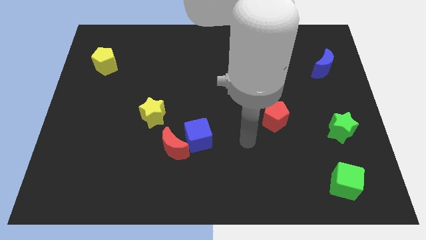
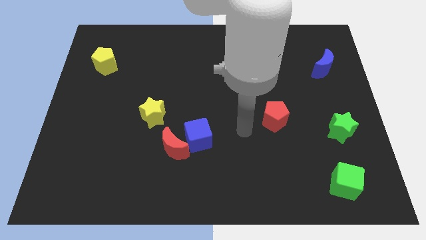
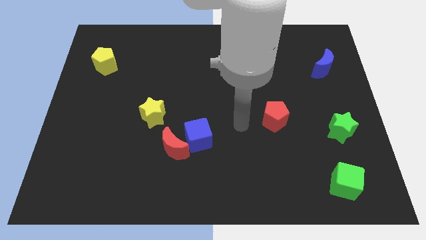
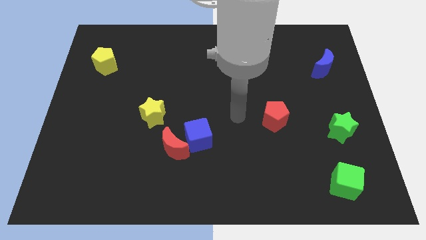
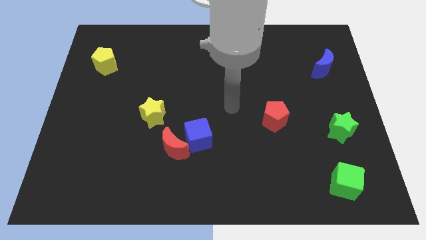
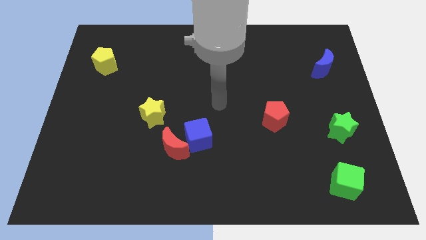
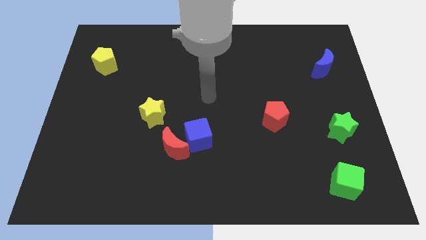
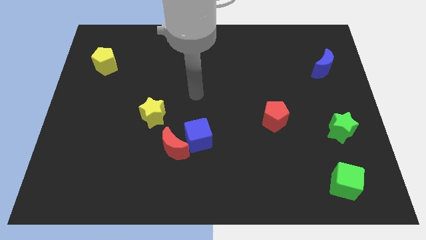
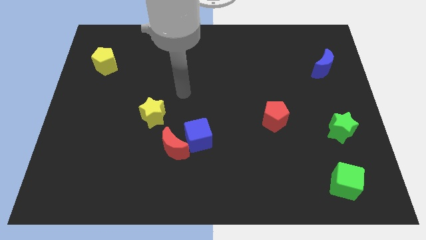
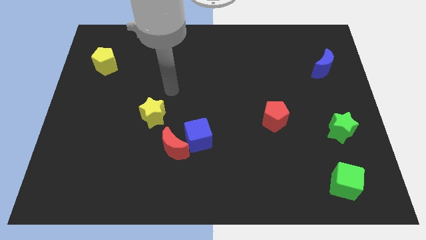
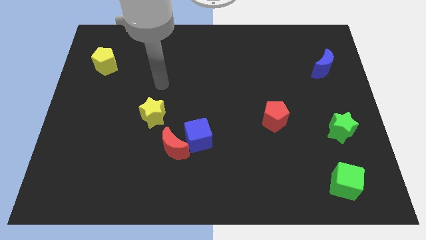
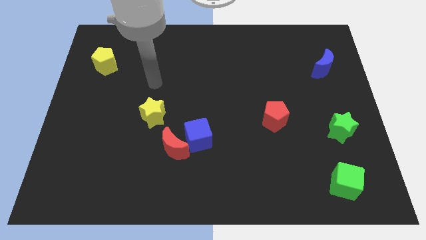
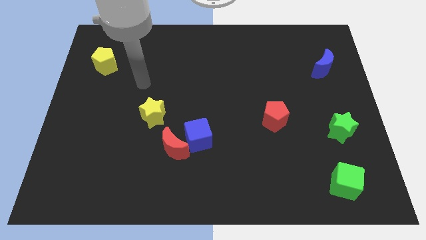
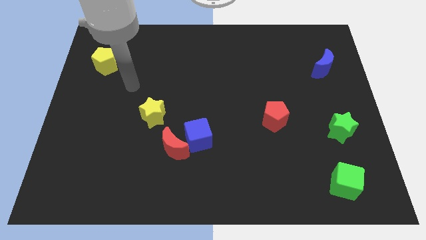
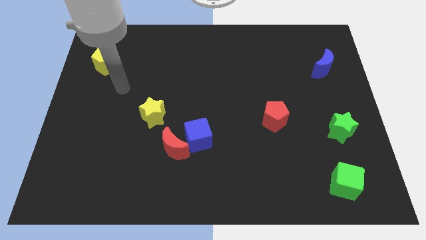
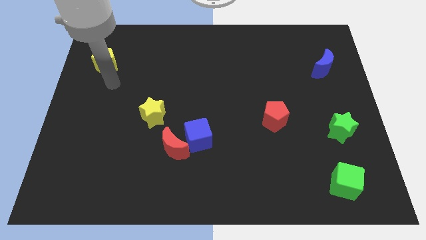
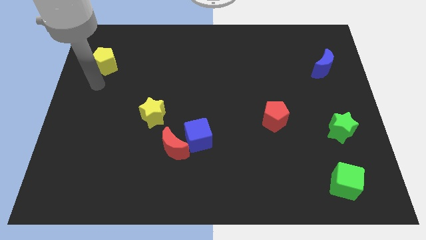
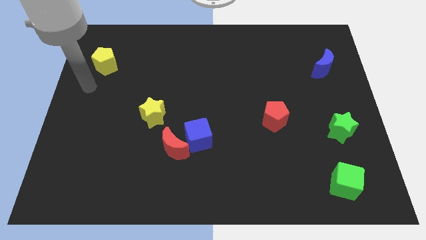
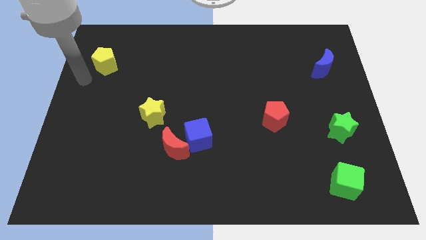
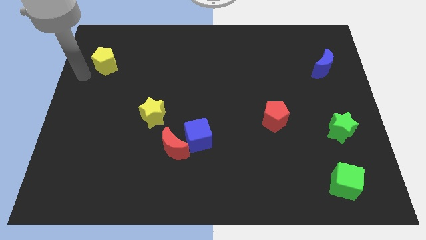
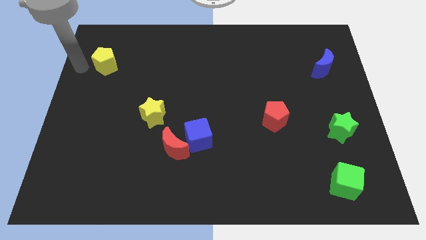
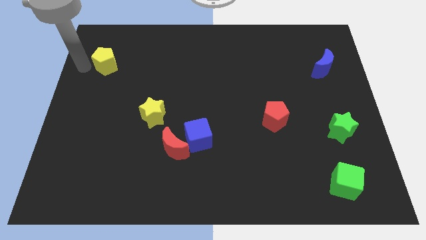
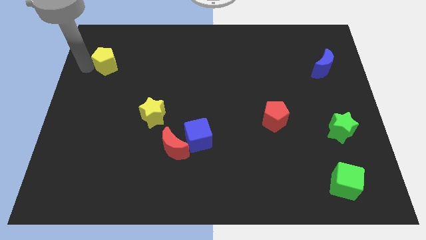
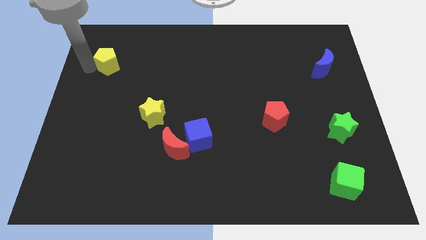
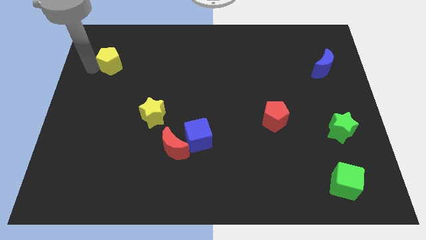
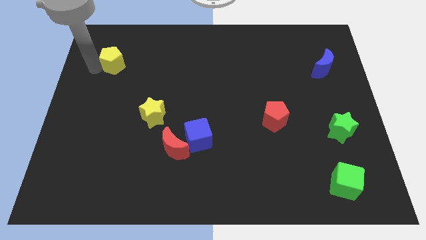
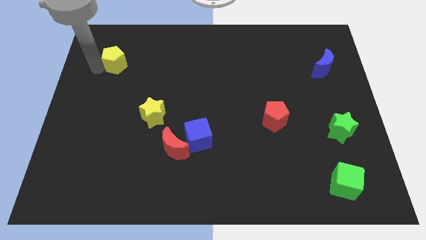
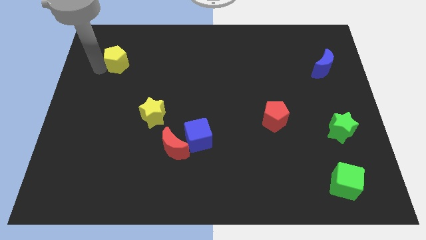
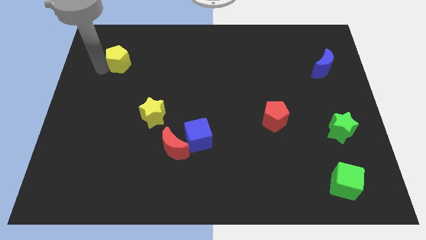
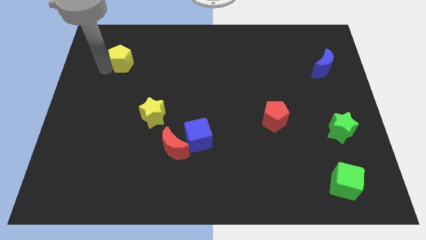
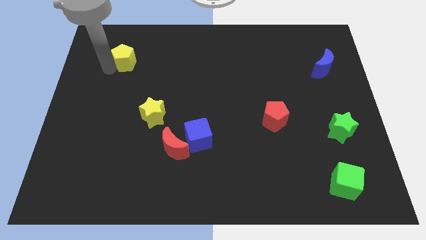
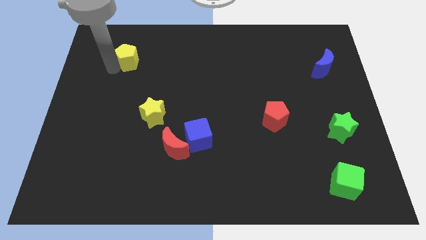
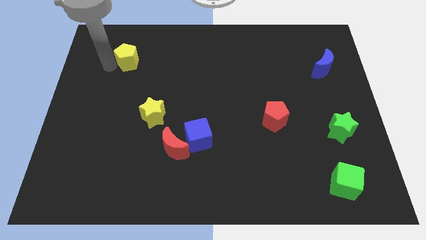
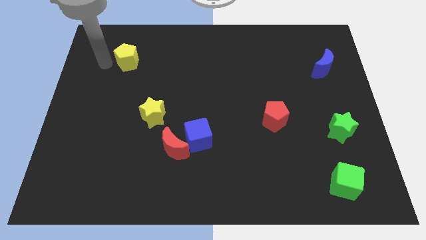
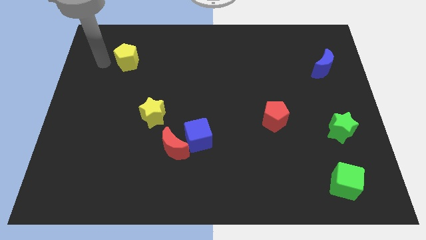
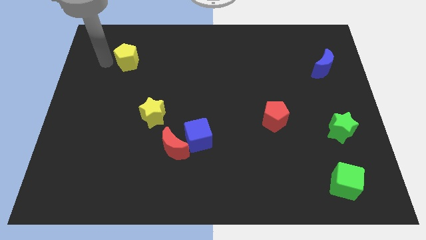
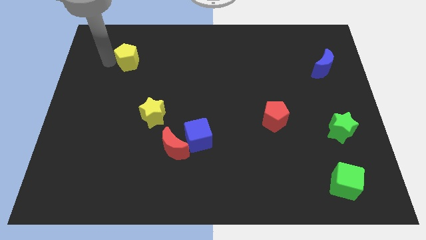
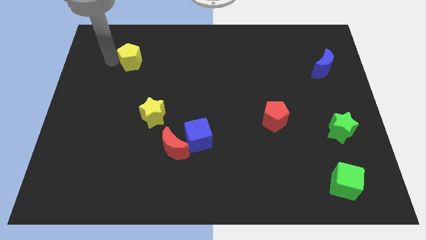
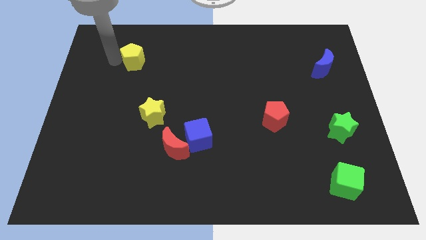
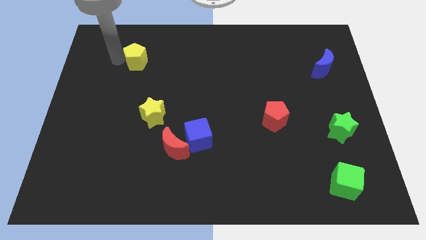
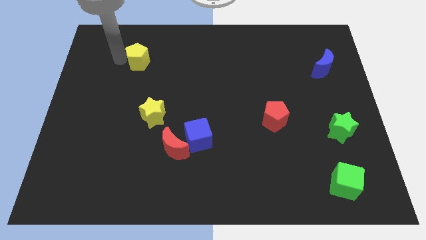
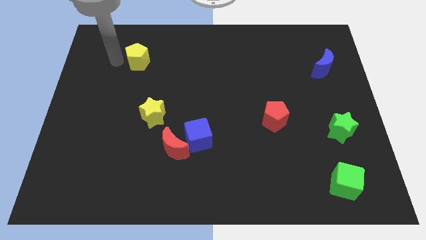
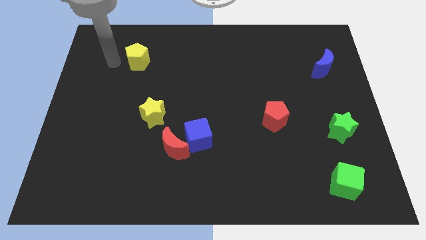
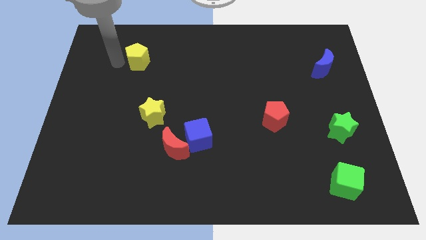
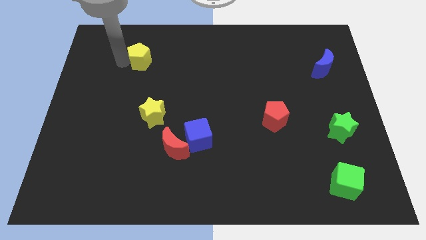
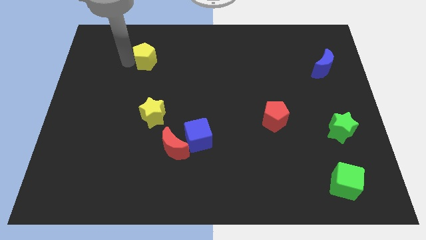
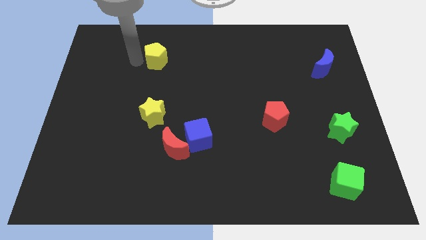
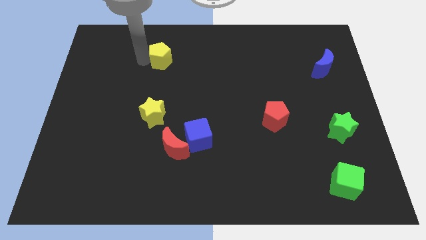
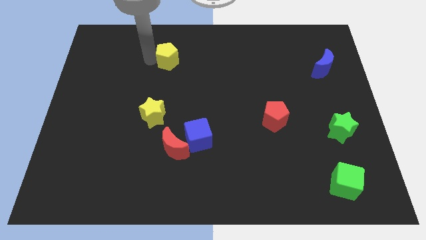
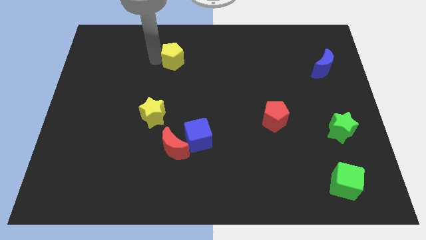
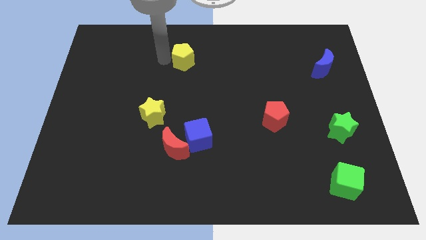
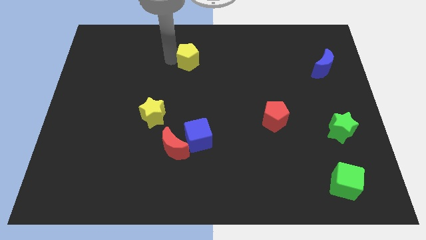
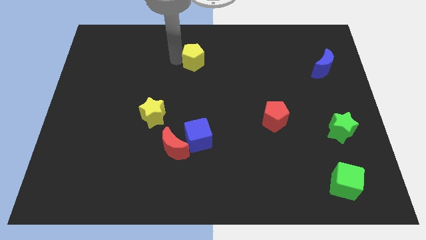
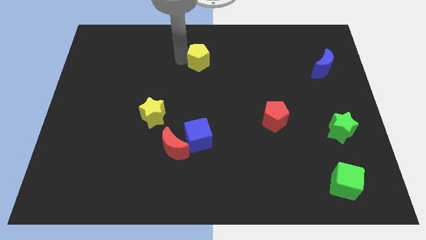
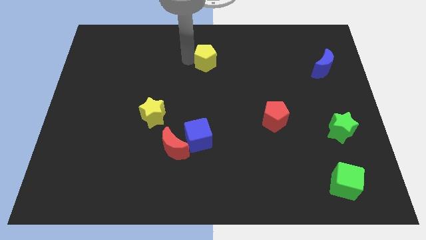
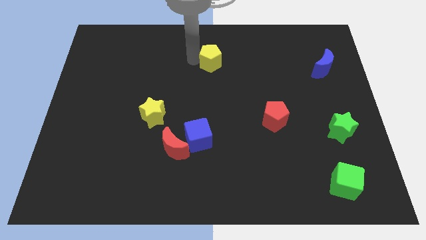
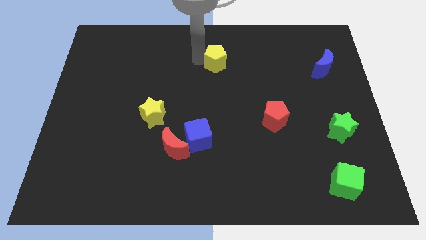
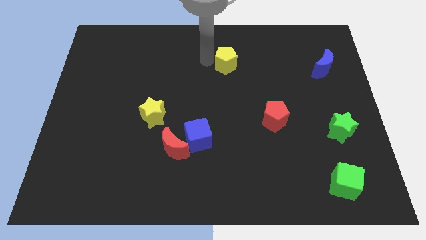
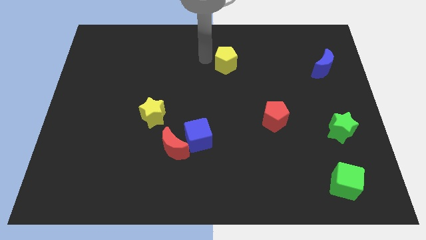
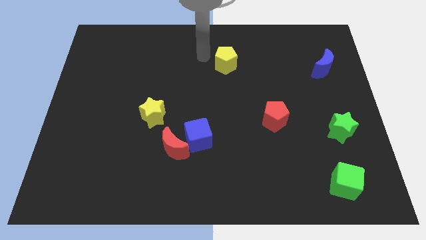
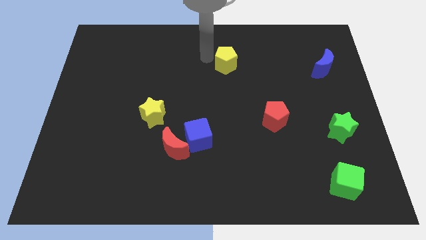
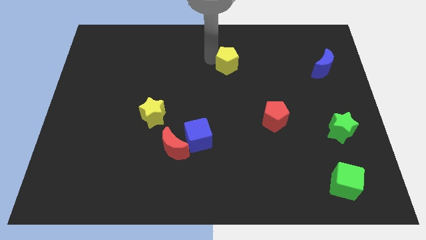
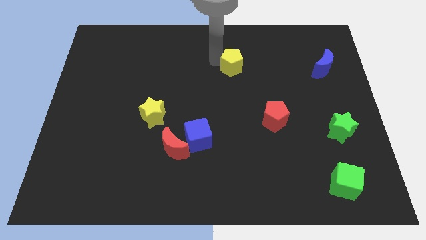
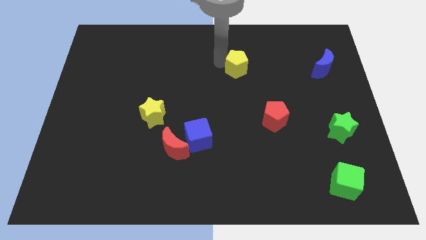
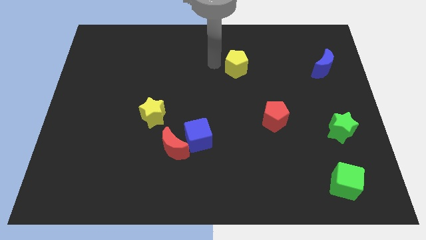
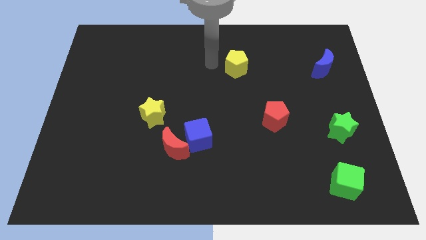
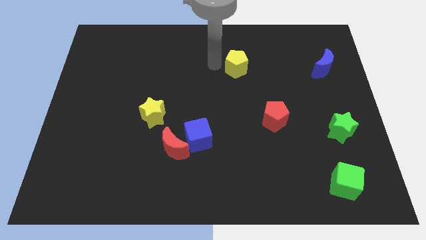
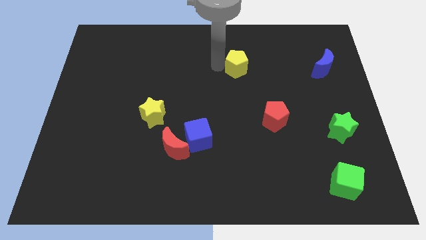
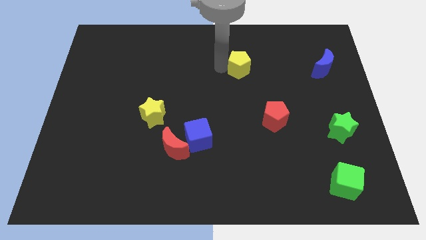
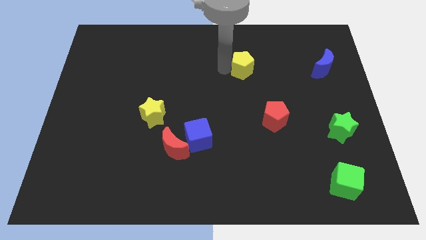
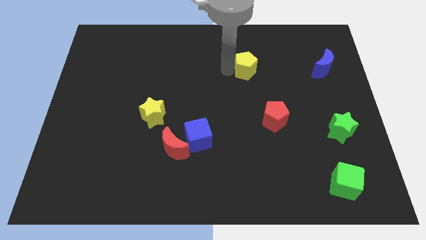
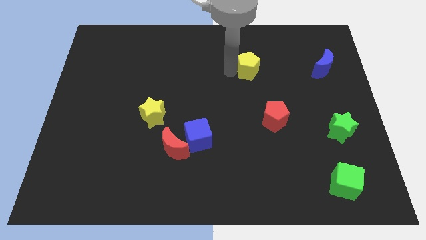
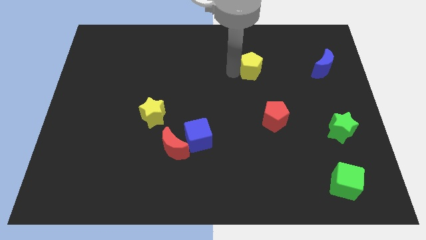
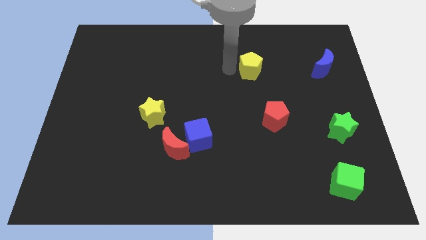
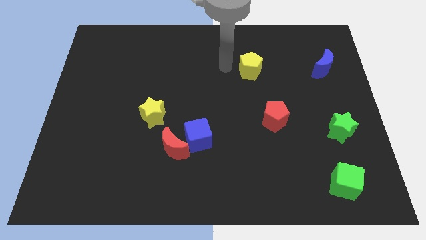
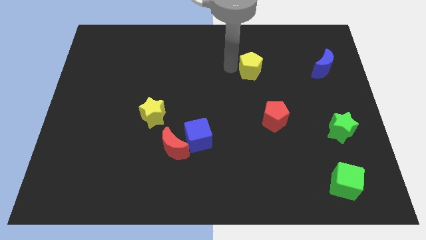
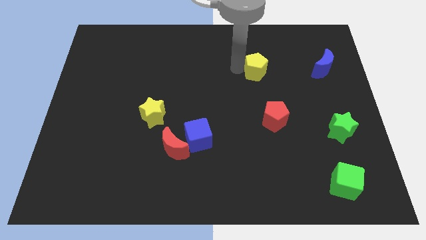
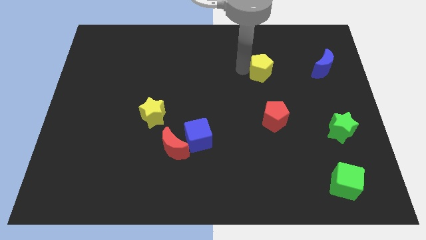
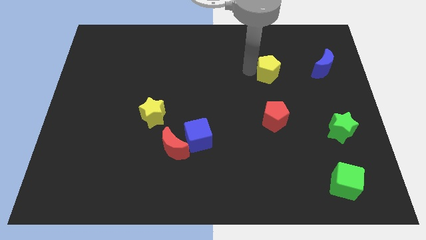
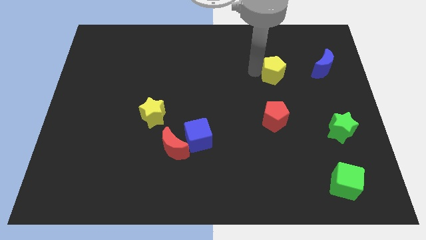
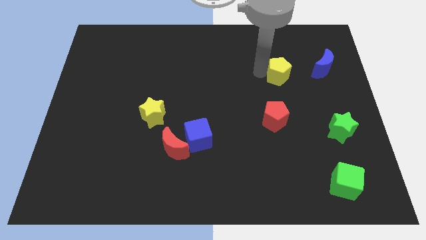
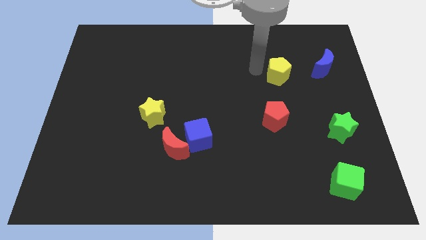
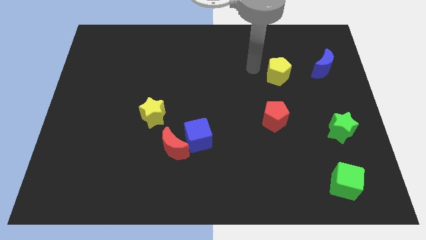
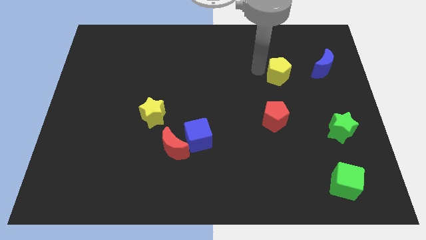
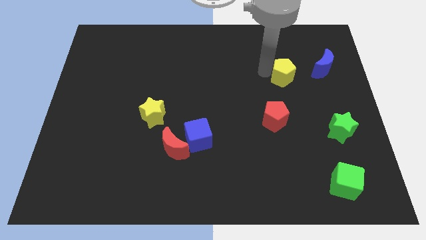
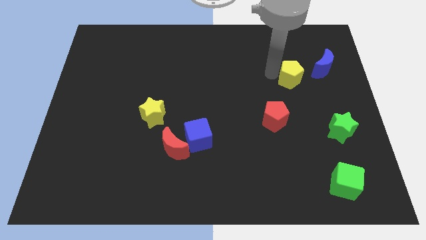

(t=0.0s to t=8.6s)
put the yellow pentagon to the bottom left side of the blue moon
